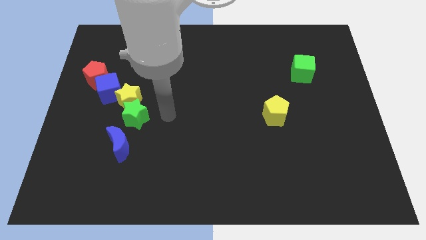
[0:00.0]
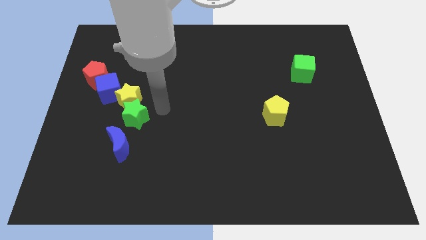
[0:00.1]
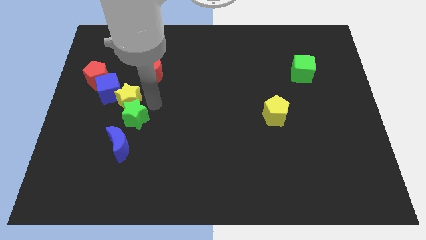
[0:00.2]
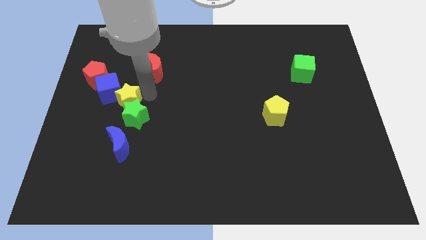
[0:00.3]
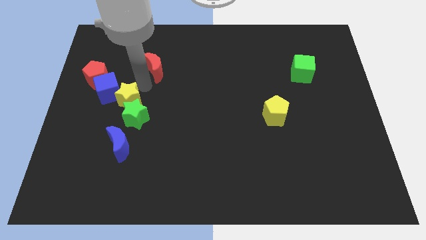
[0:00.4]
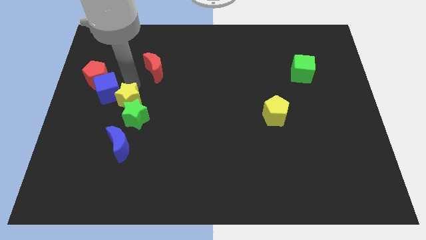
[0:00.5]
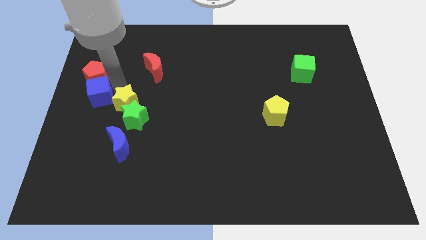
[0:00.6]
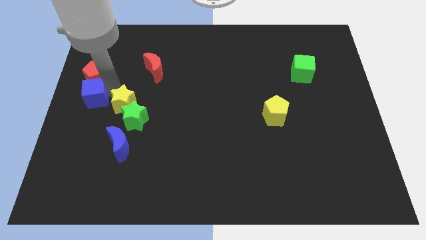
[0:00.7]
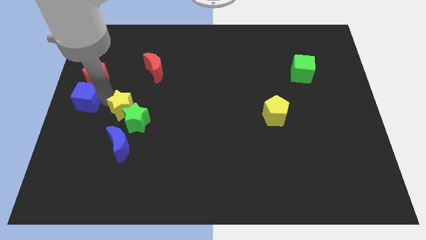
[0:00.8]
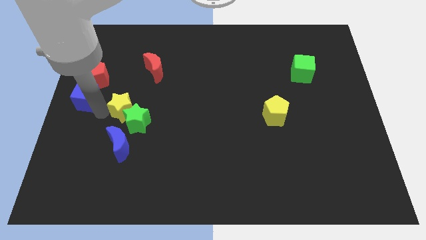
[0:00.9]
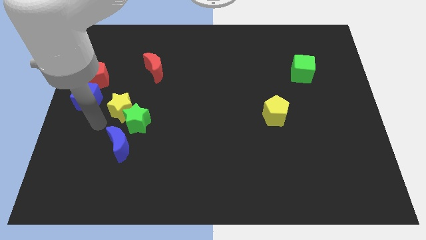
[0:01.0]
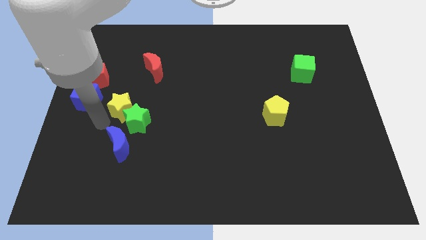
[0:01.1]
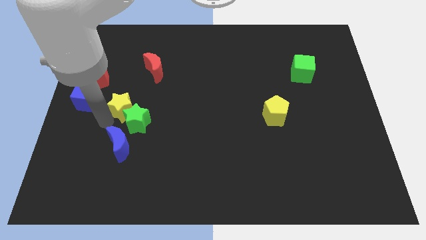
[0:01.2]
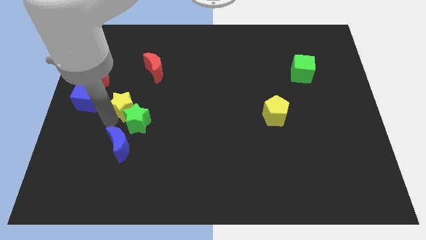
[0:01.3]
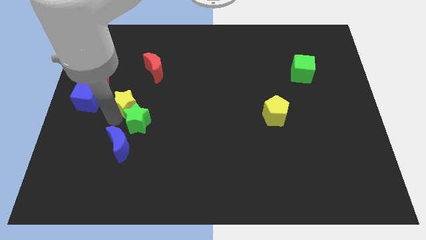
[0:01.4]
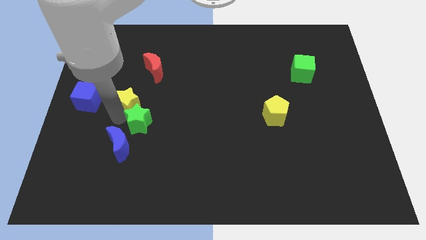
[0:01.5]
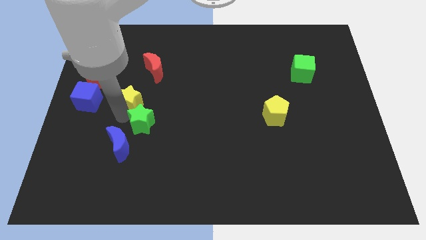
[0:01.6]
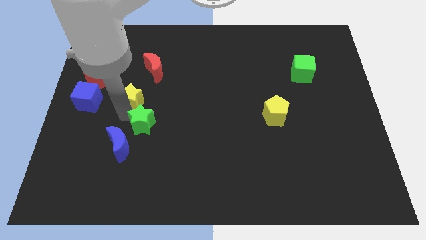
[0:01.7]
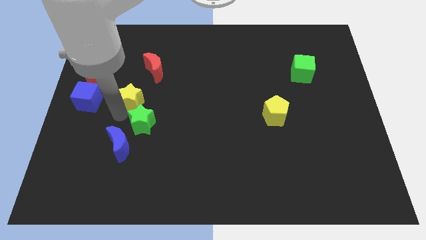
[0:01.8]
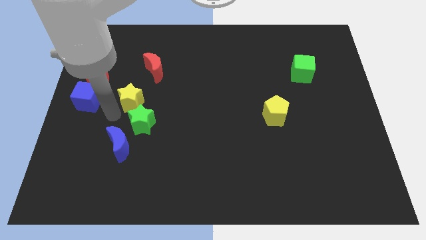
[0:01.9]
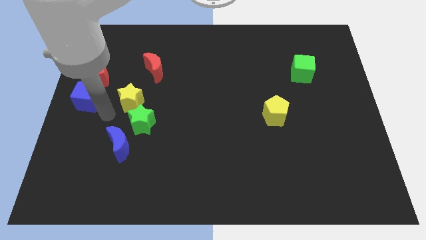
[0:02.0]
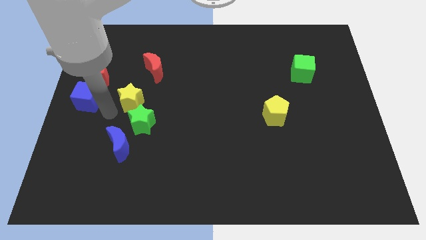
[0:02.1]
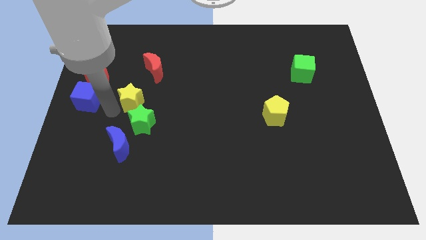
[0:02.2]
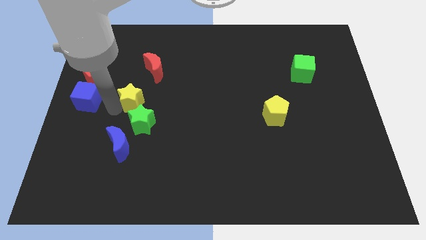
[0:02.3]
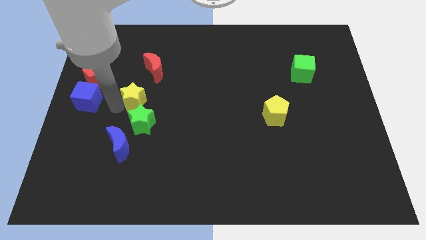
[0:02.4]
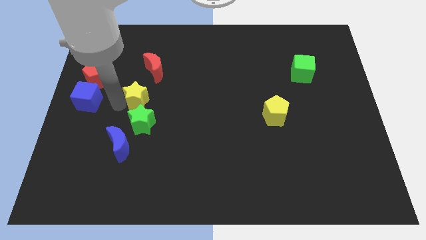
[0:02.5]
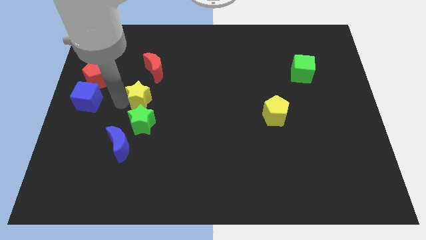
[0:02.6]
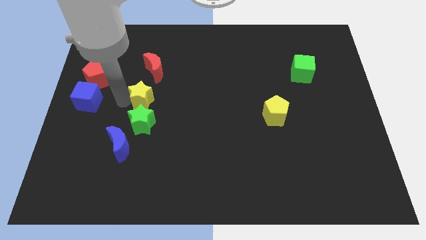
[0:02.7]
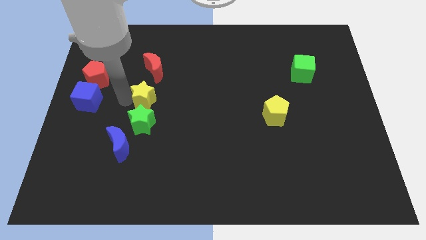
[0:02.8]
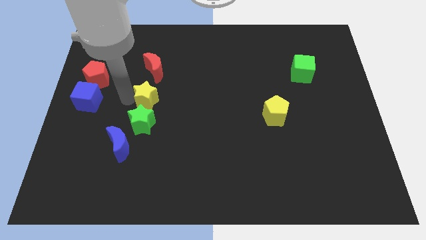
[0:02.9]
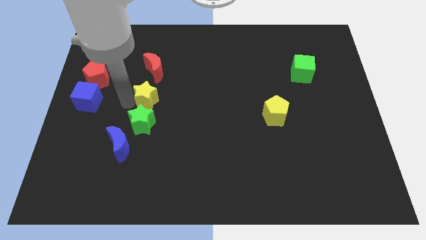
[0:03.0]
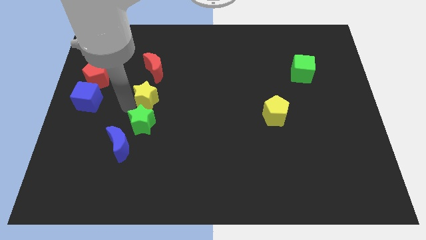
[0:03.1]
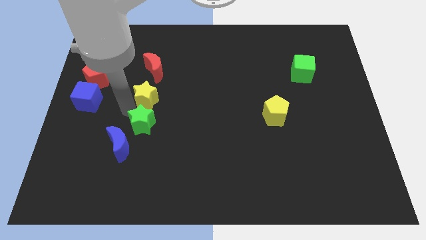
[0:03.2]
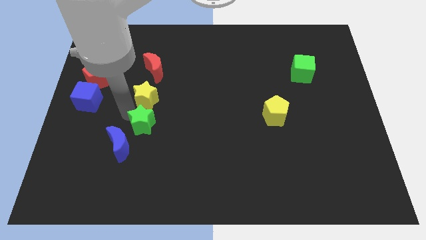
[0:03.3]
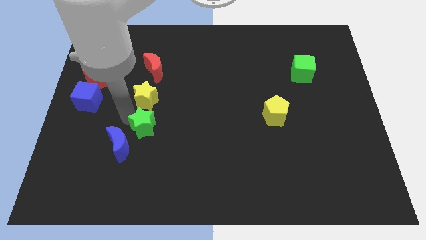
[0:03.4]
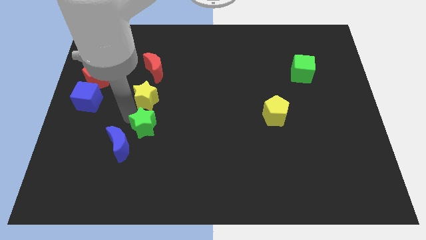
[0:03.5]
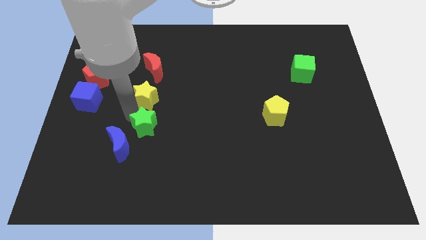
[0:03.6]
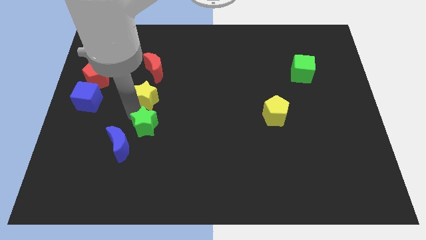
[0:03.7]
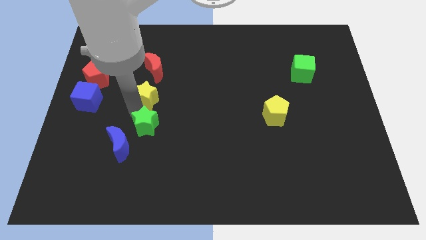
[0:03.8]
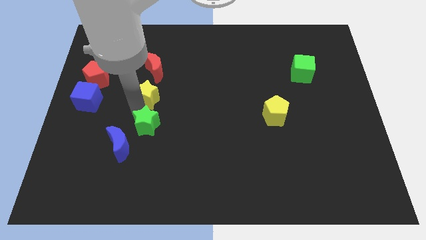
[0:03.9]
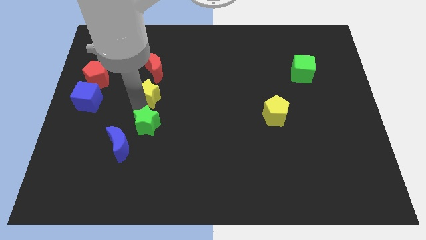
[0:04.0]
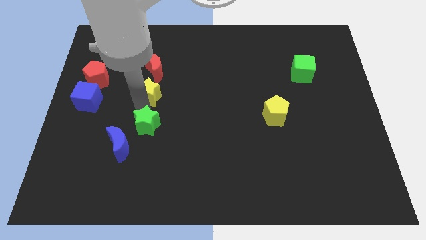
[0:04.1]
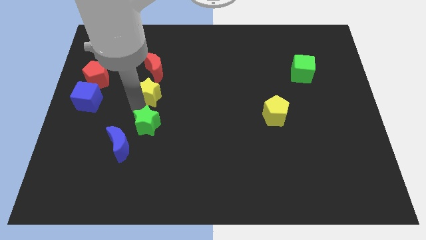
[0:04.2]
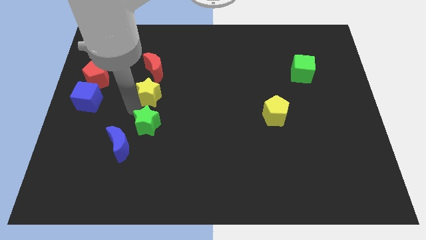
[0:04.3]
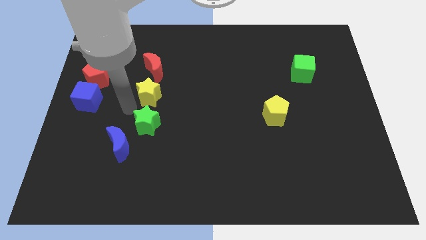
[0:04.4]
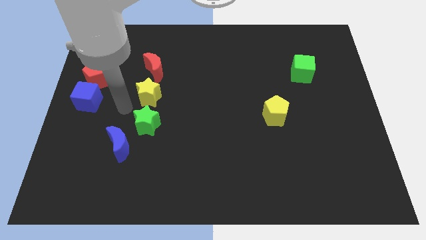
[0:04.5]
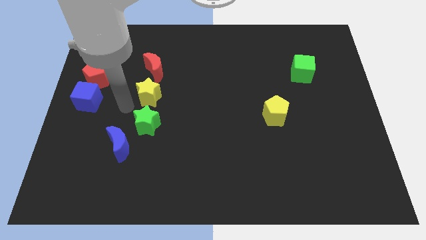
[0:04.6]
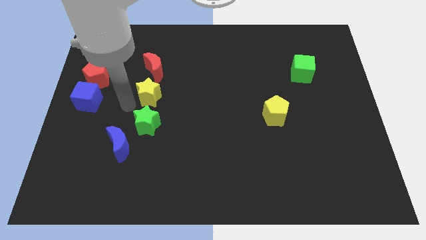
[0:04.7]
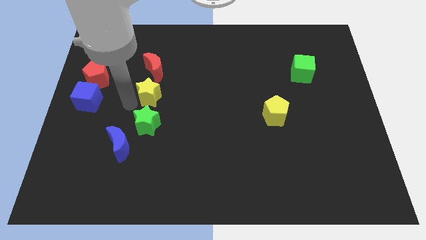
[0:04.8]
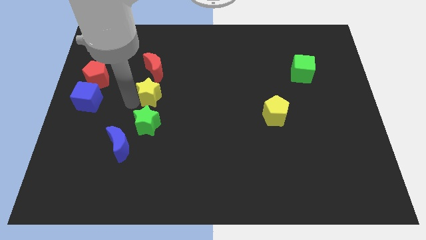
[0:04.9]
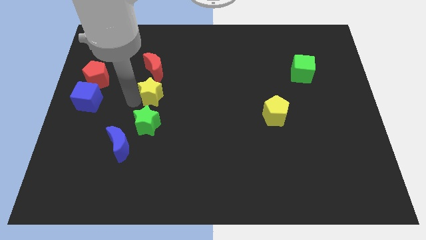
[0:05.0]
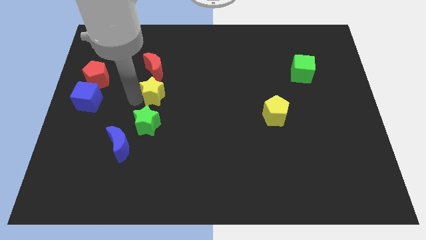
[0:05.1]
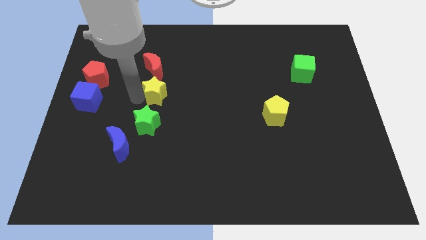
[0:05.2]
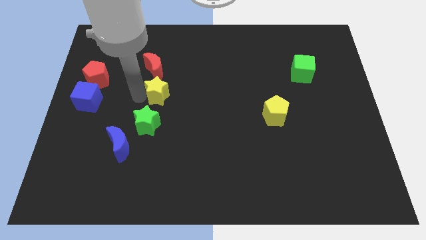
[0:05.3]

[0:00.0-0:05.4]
move the yellow star away from the green star and blue cube

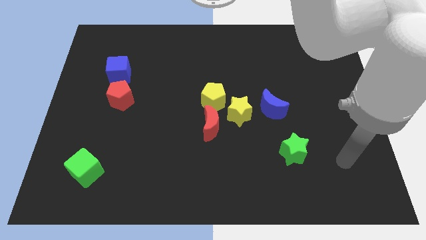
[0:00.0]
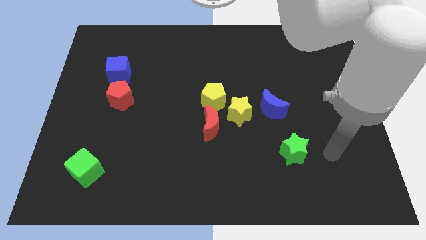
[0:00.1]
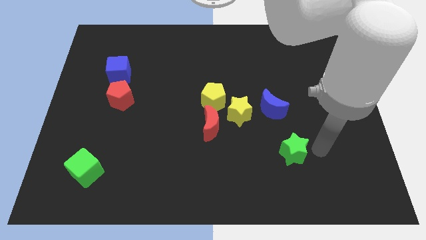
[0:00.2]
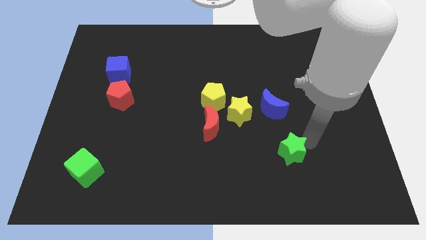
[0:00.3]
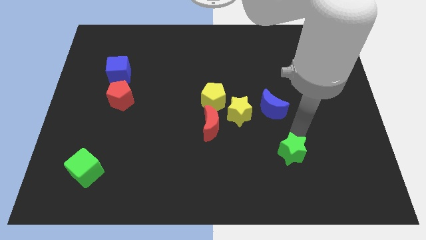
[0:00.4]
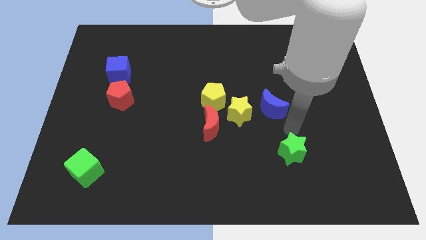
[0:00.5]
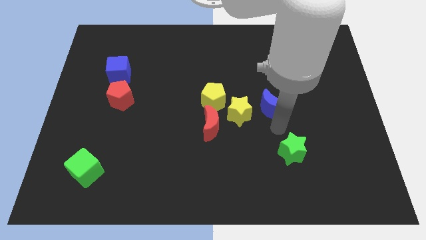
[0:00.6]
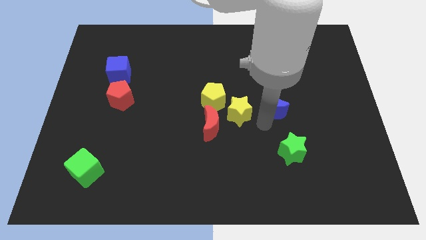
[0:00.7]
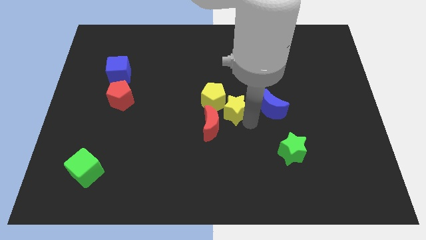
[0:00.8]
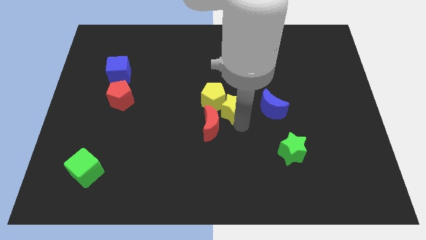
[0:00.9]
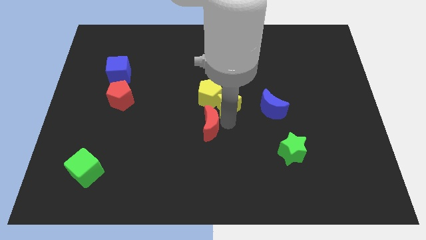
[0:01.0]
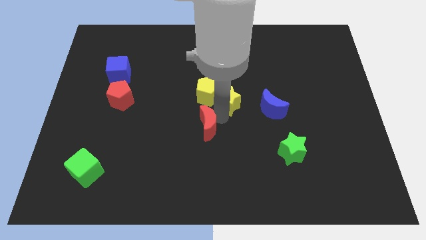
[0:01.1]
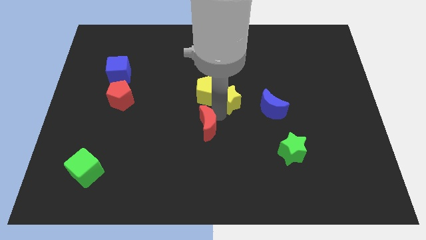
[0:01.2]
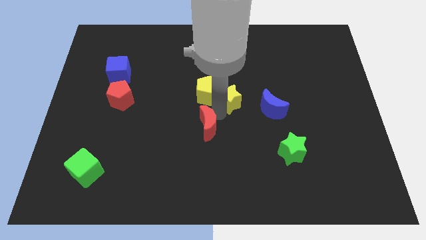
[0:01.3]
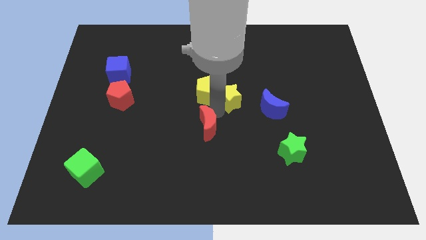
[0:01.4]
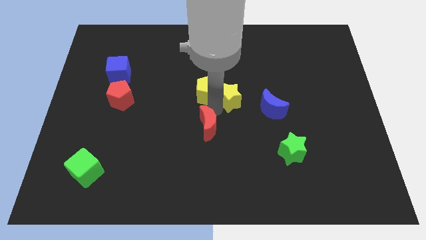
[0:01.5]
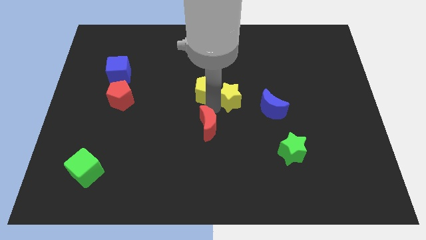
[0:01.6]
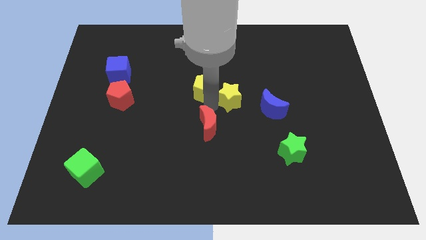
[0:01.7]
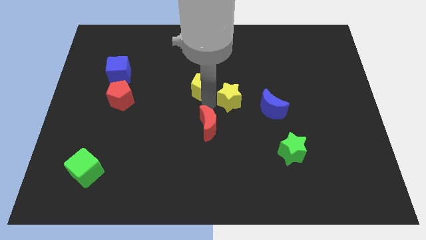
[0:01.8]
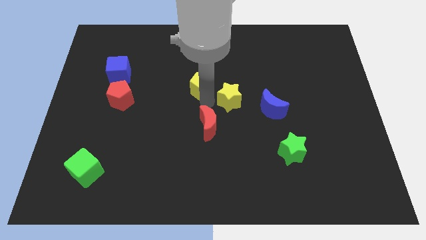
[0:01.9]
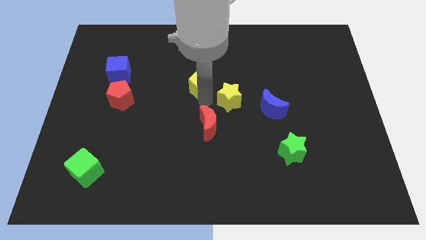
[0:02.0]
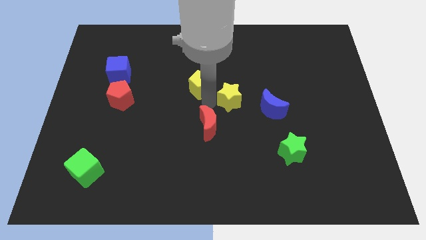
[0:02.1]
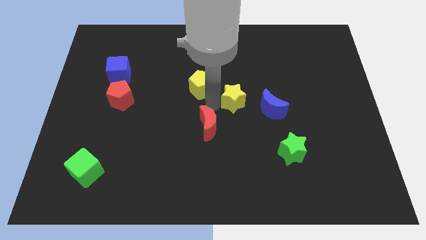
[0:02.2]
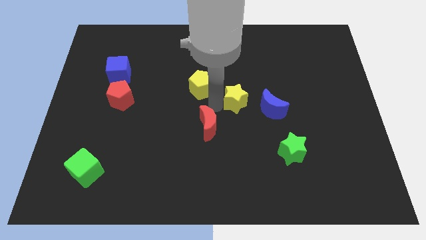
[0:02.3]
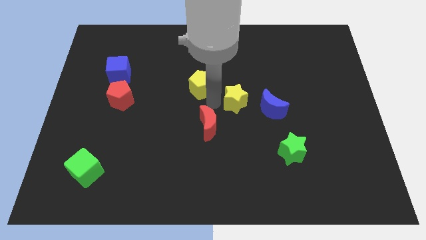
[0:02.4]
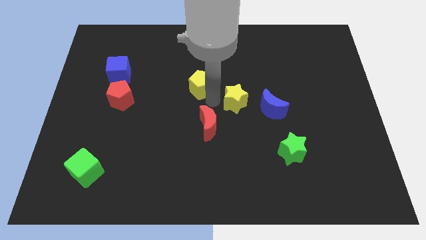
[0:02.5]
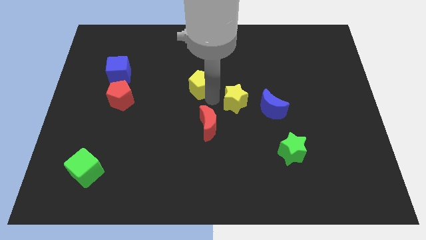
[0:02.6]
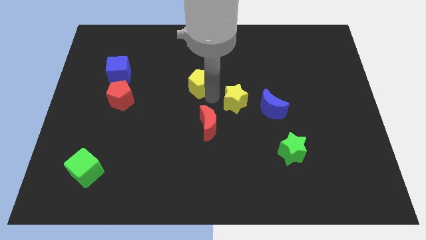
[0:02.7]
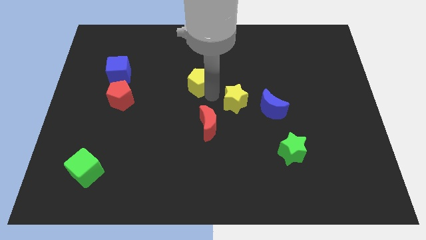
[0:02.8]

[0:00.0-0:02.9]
pull the yellow pentagon apart from the yellow star and red moon

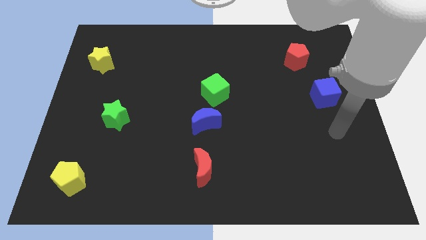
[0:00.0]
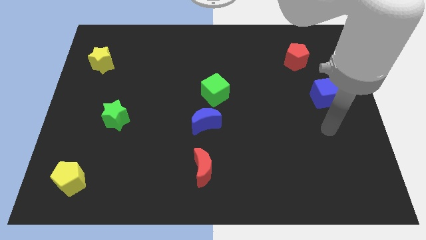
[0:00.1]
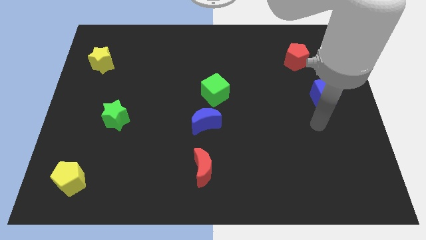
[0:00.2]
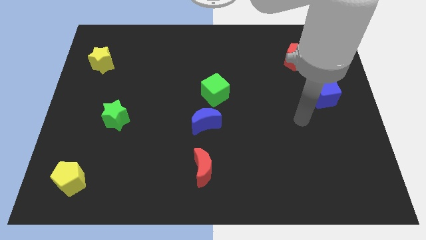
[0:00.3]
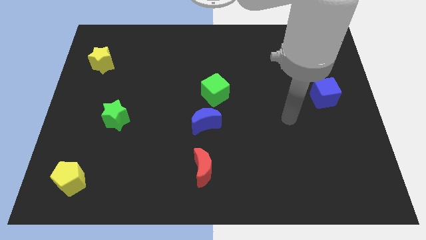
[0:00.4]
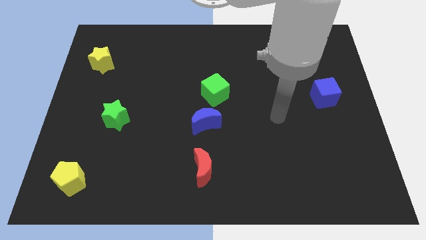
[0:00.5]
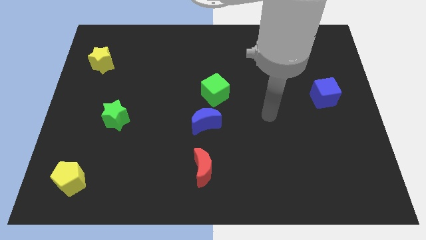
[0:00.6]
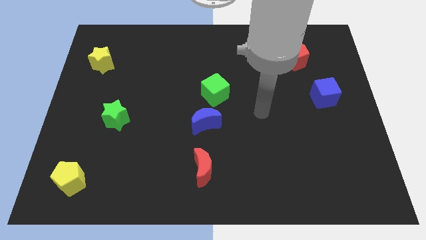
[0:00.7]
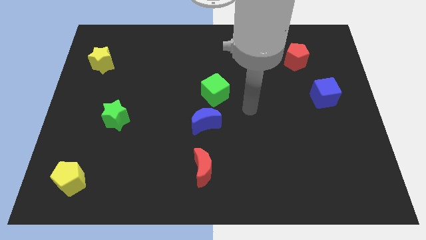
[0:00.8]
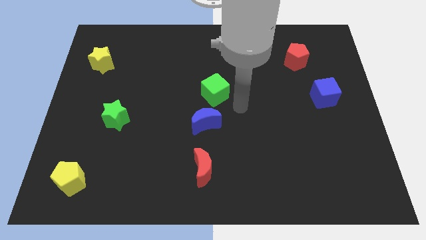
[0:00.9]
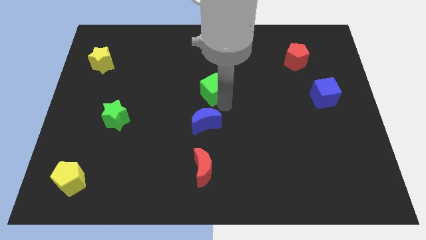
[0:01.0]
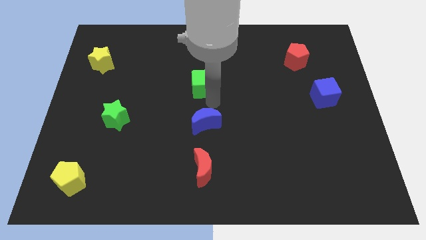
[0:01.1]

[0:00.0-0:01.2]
pull the blue moon apart from the green cube
